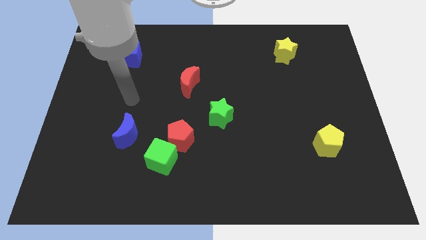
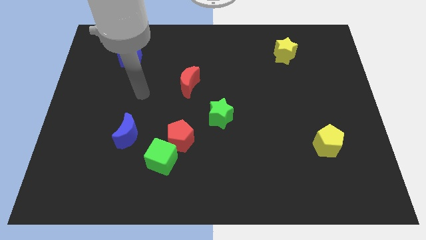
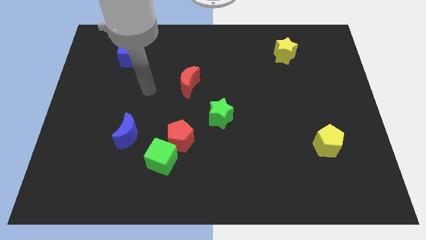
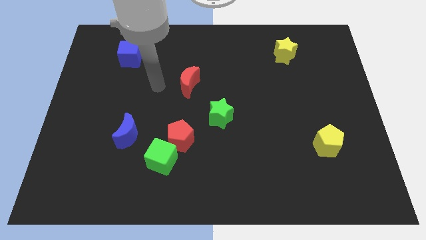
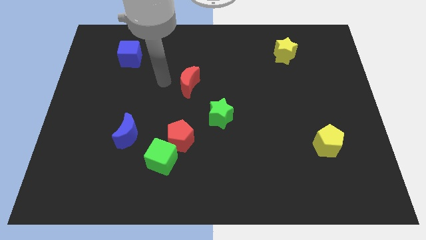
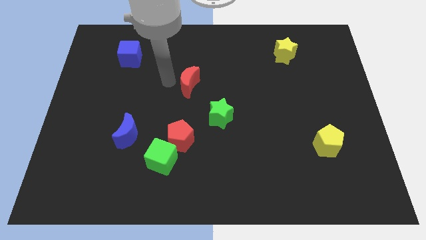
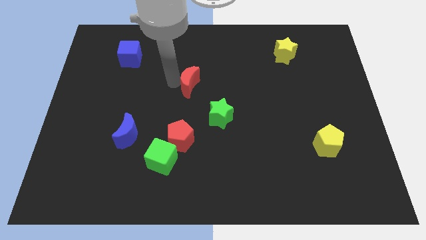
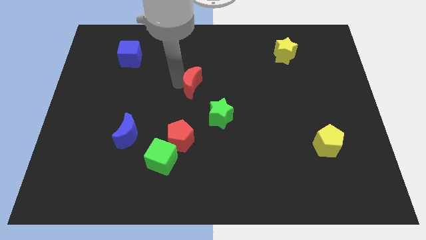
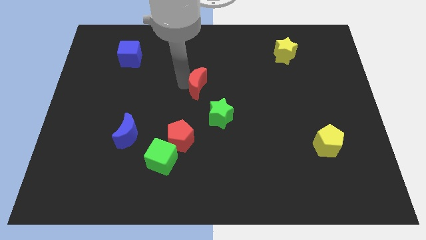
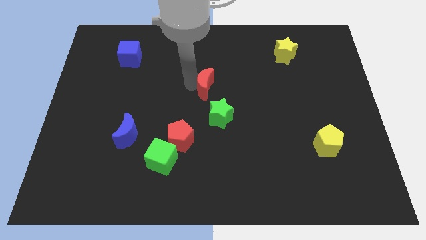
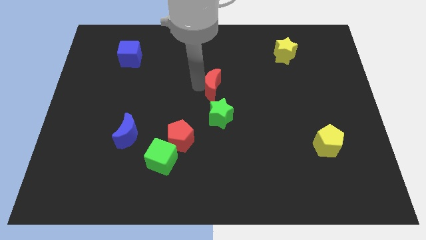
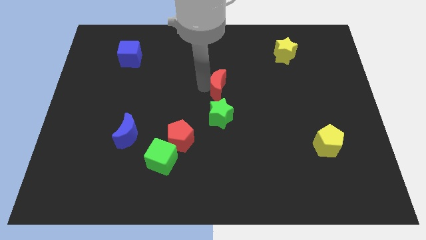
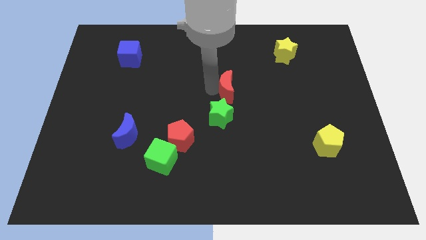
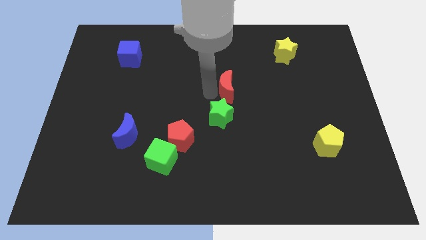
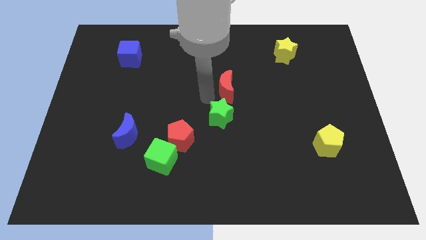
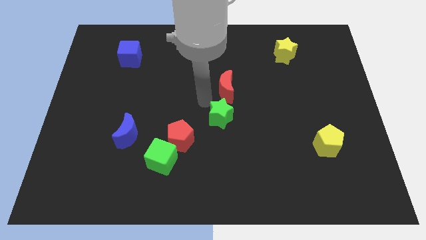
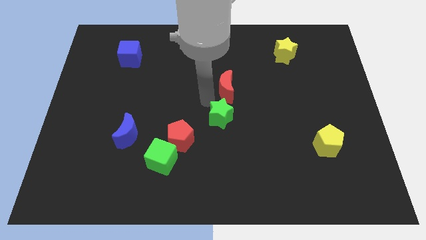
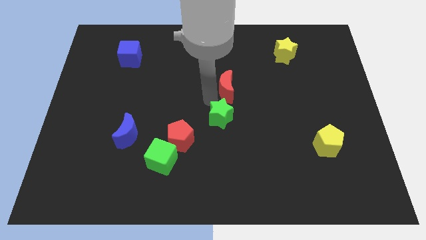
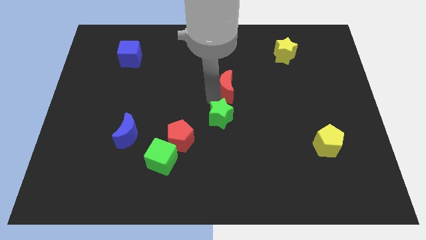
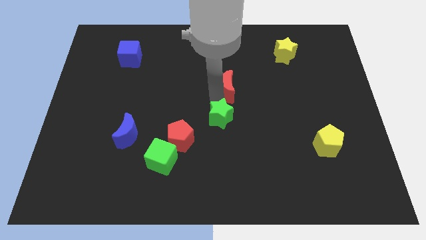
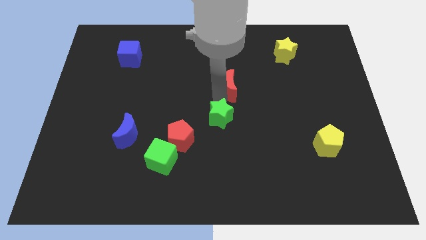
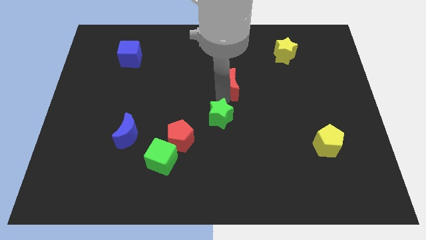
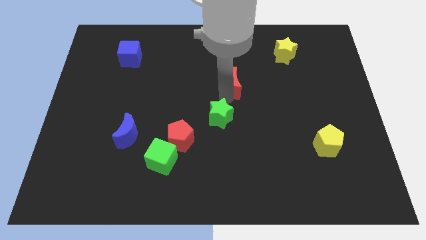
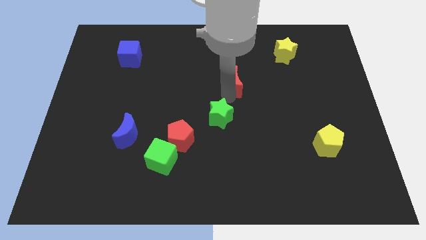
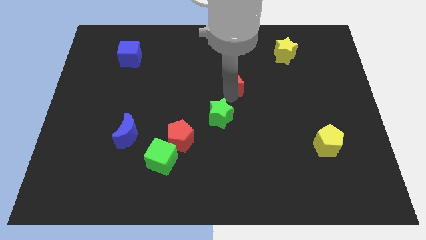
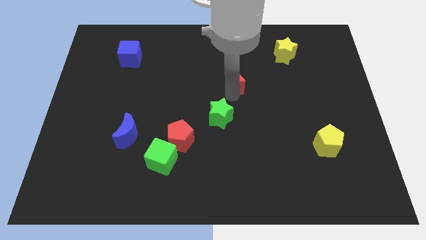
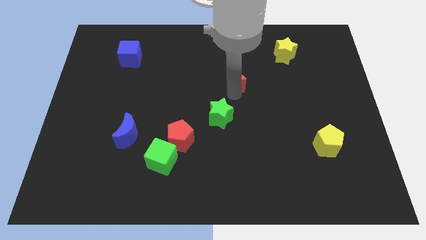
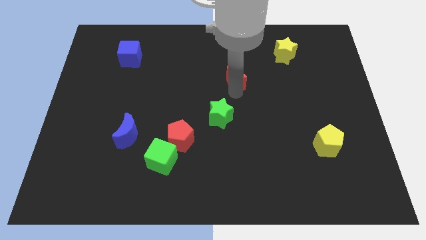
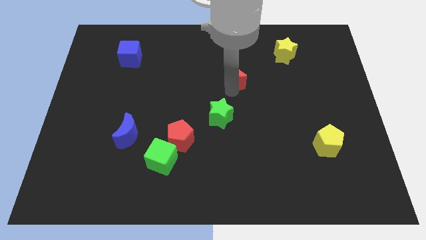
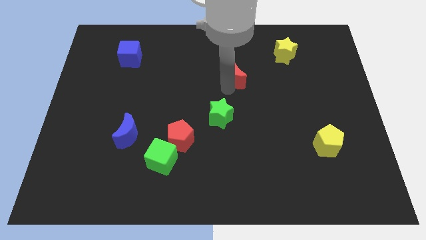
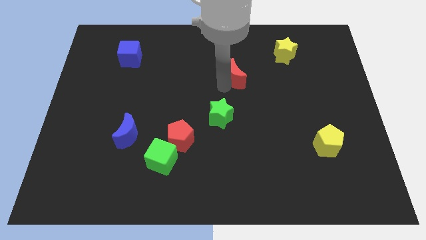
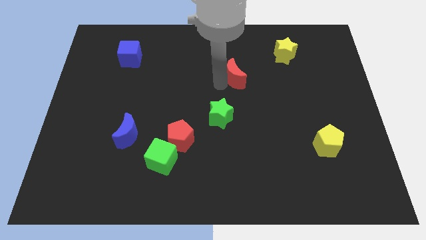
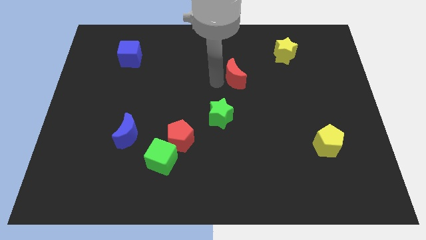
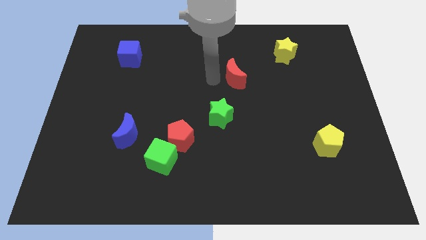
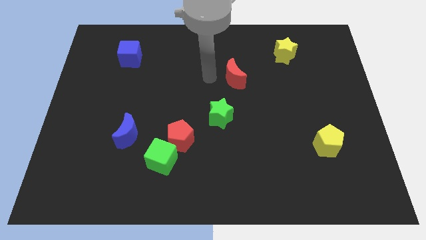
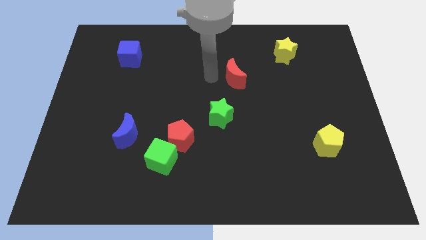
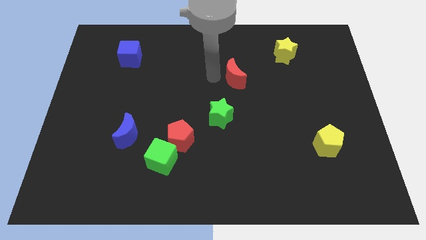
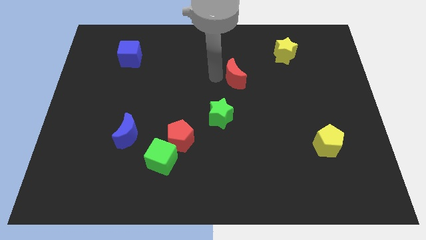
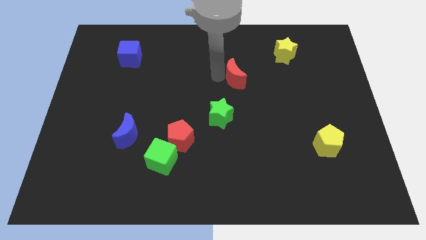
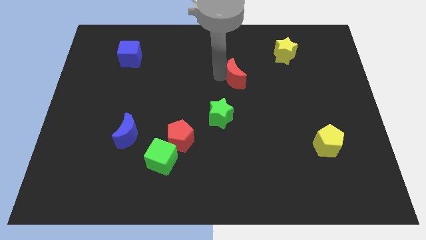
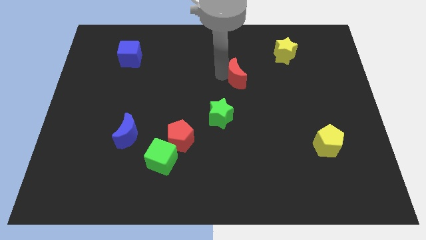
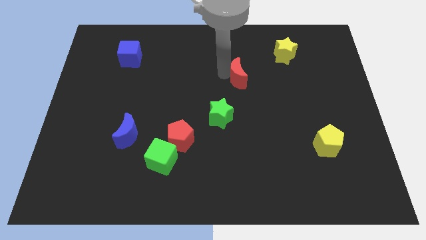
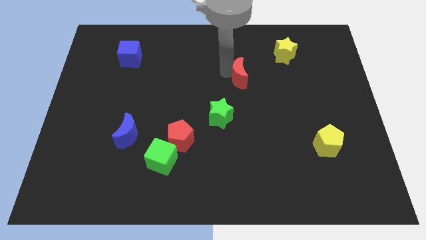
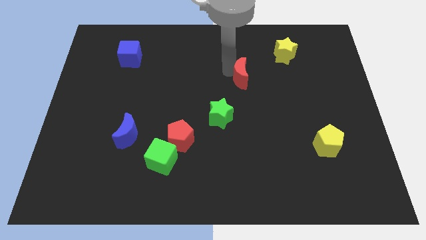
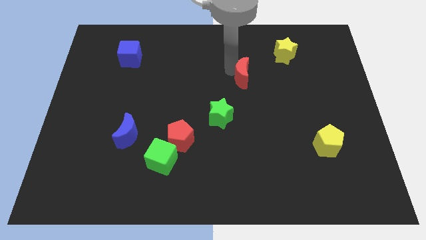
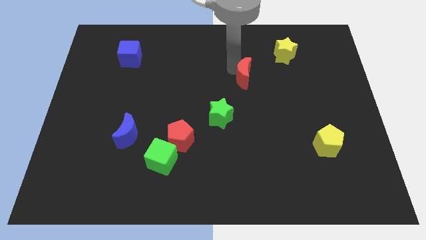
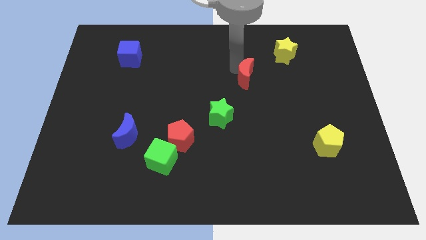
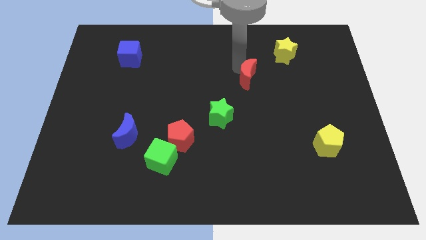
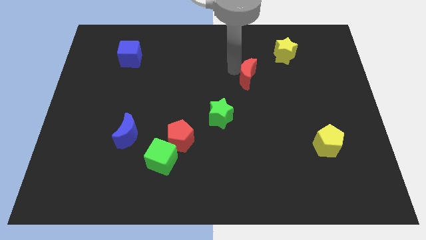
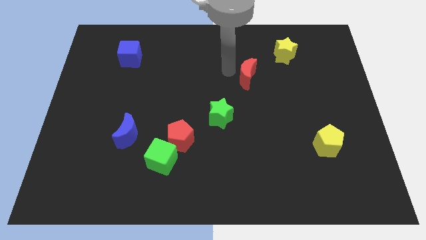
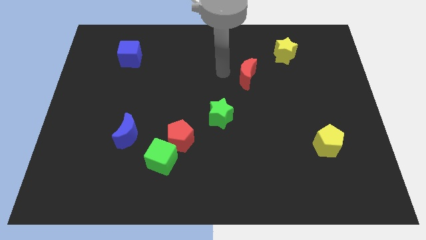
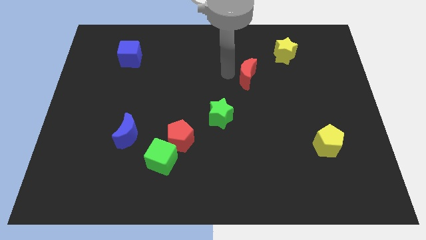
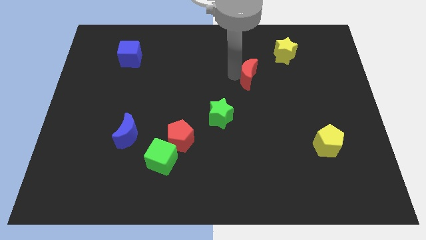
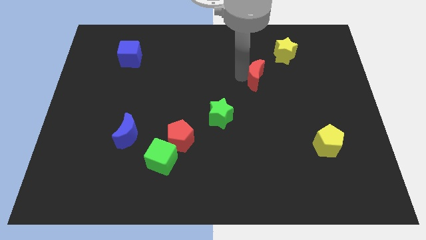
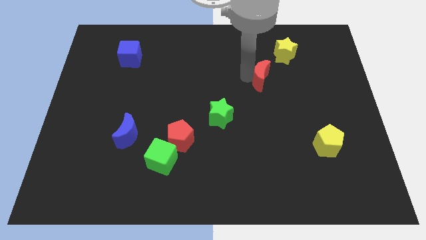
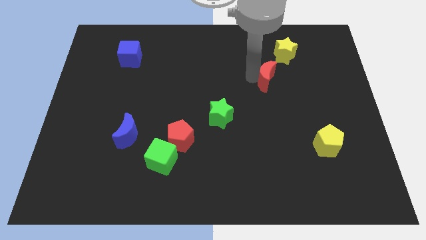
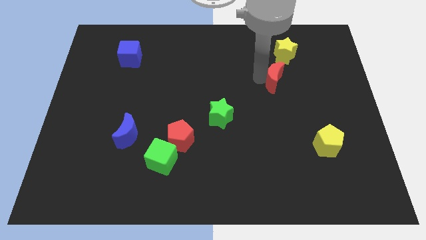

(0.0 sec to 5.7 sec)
push the red moon right

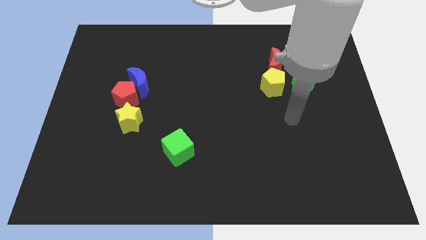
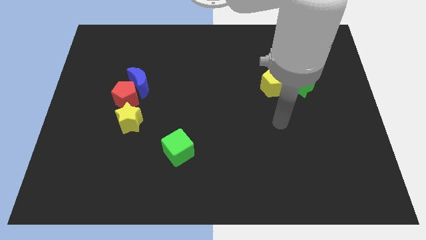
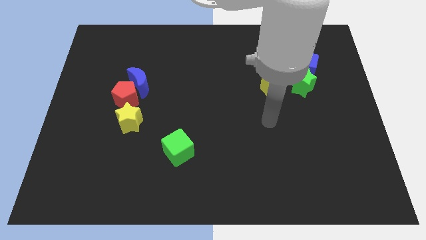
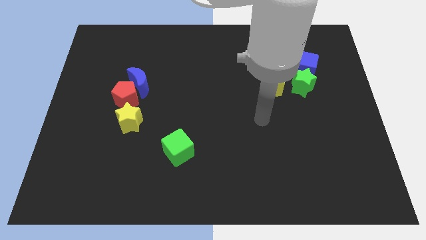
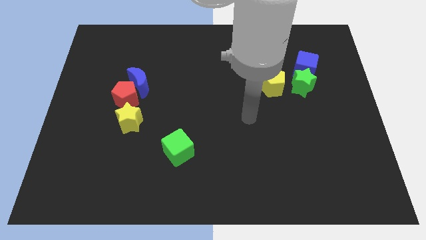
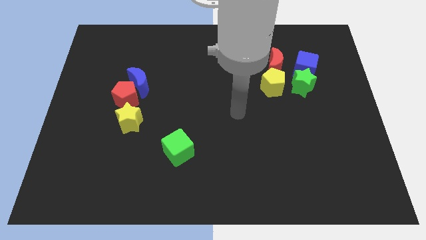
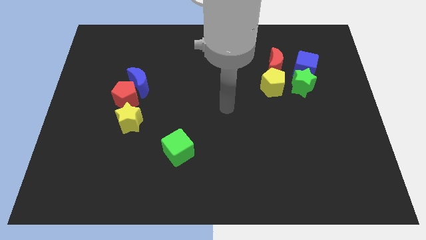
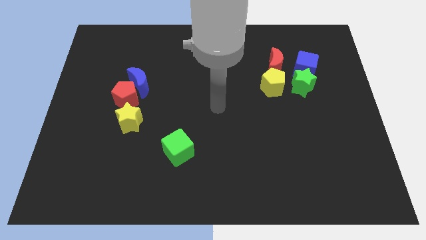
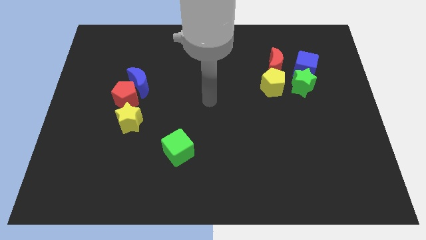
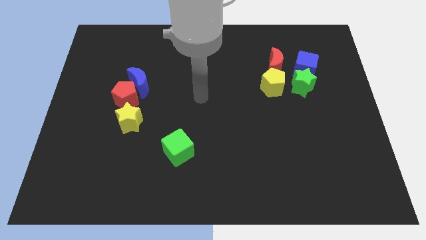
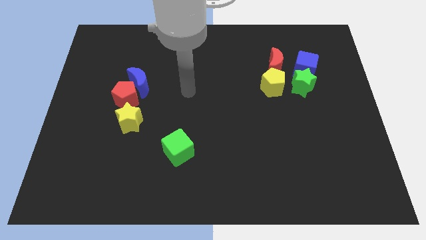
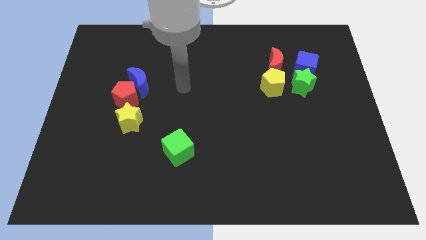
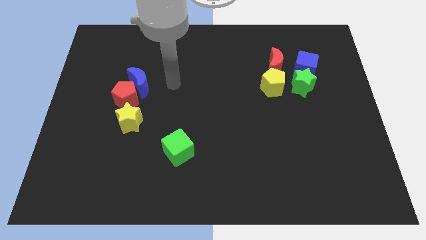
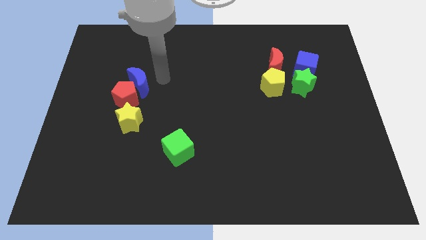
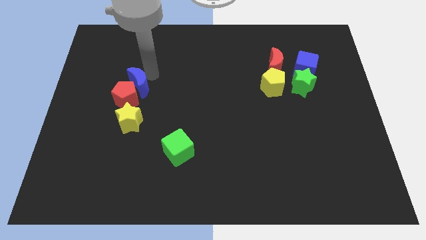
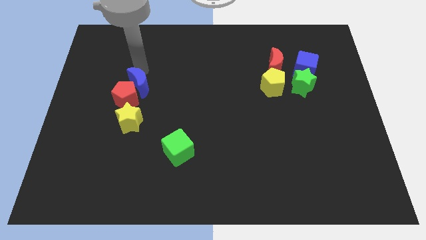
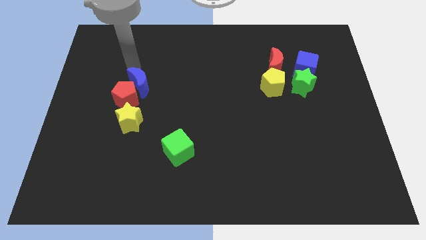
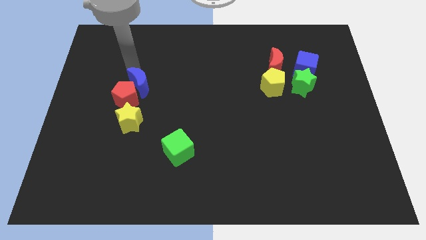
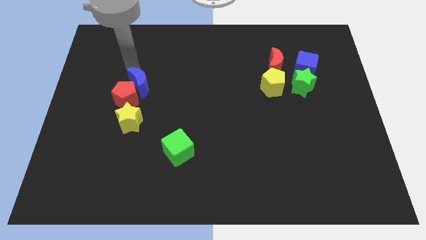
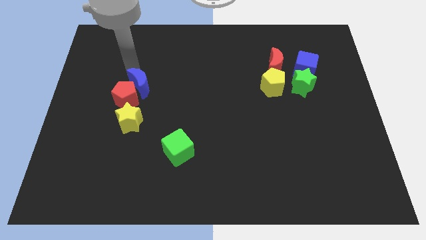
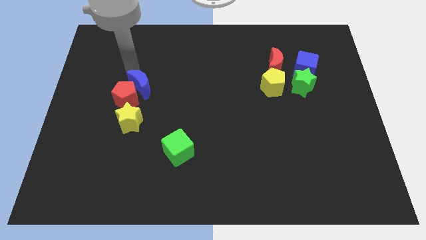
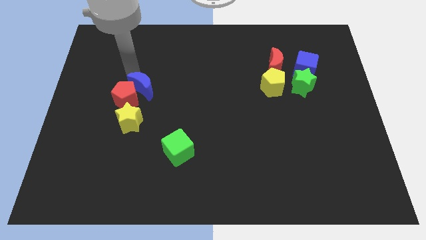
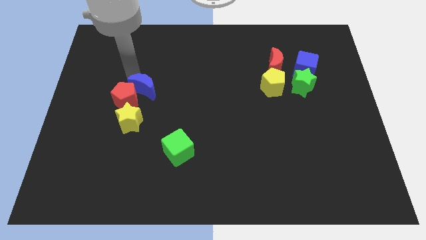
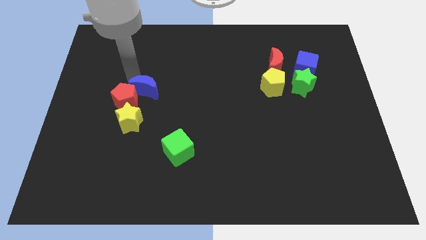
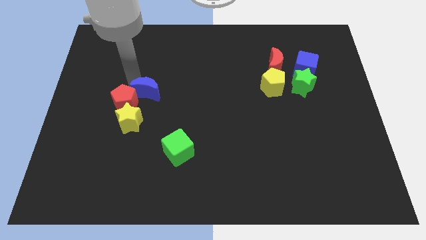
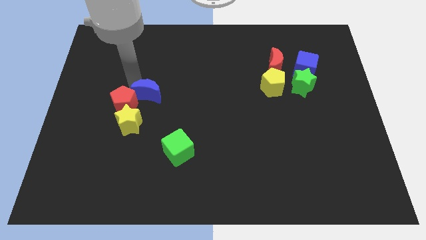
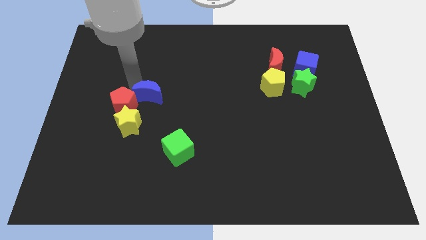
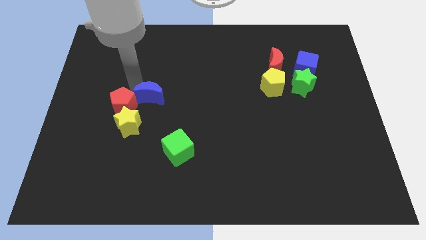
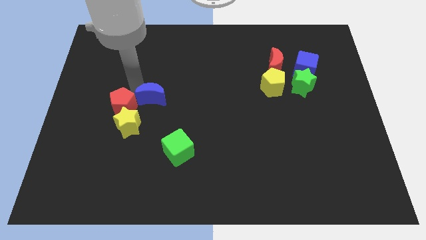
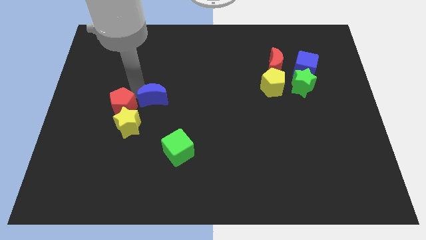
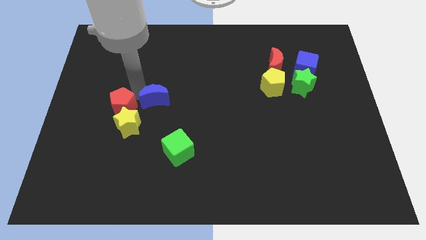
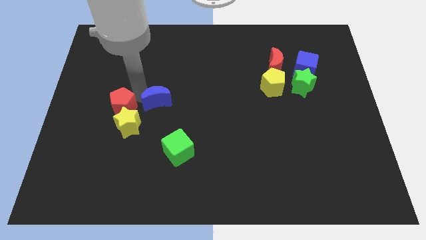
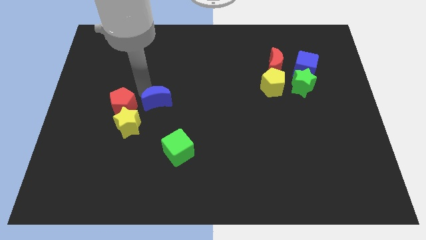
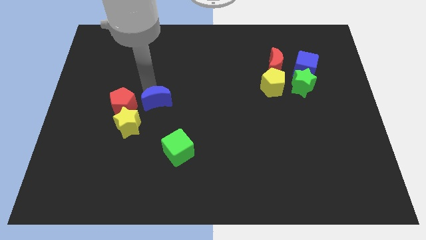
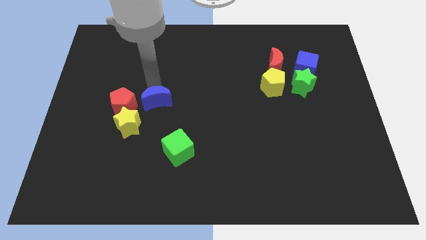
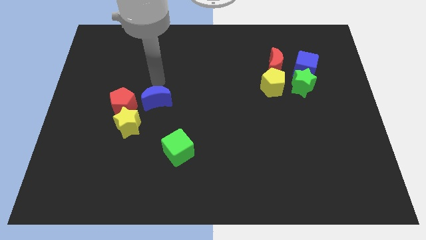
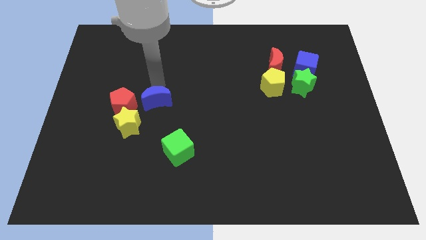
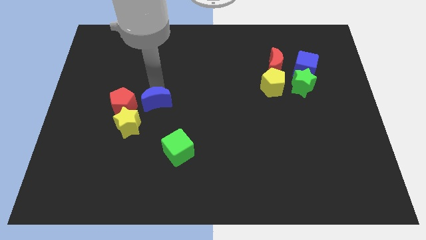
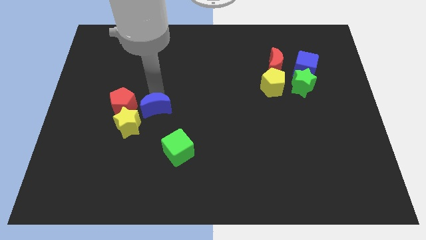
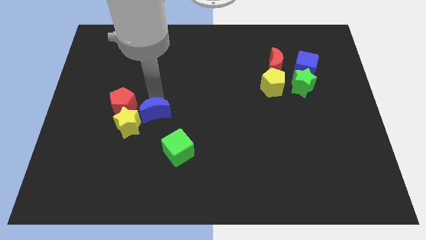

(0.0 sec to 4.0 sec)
slightly move the blue moon downwards
